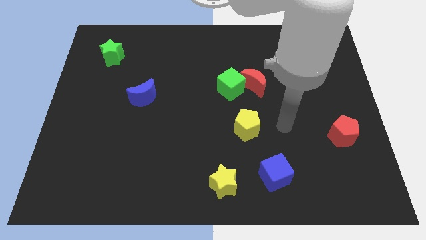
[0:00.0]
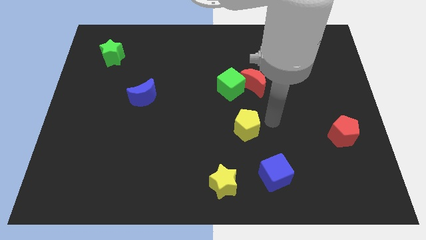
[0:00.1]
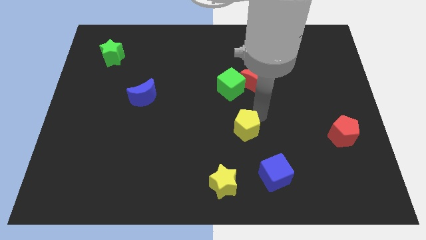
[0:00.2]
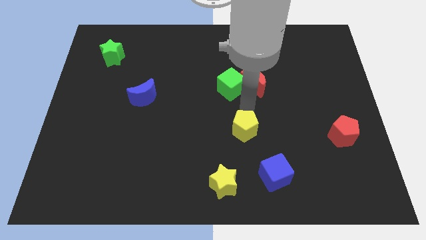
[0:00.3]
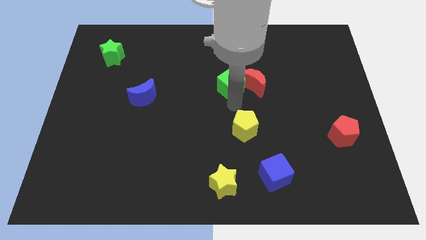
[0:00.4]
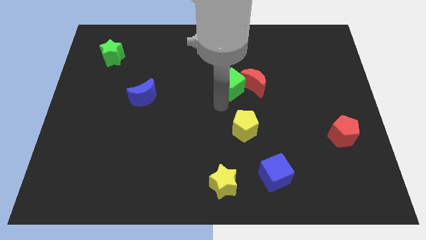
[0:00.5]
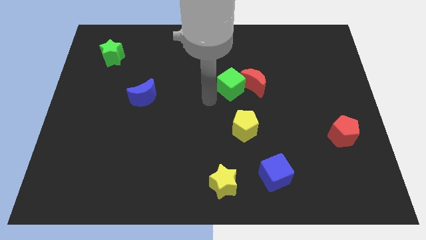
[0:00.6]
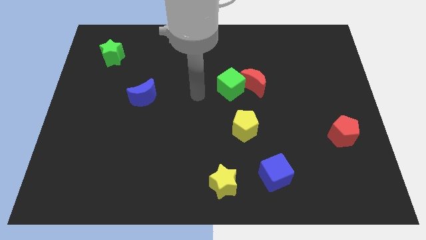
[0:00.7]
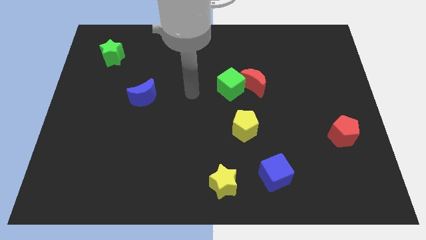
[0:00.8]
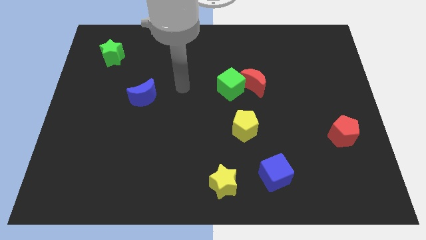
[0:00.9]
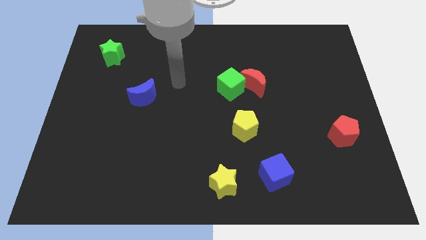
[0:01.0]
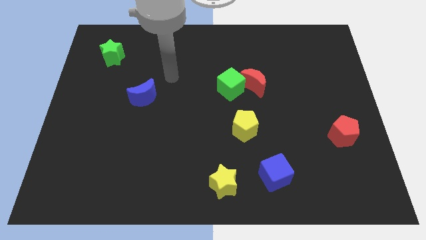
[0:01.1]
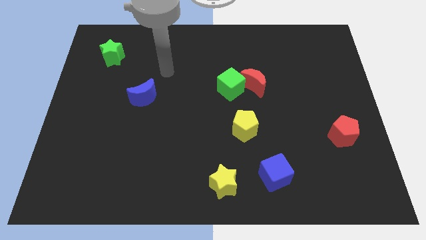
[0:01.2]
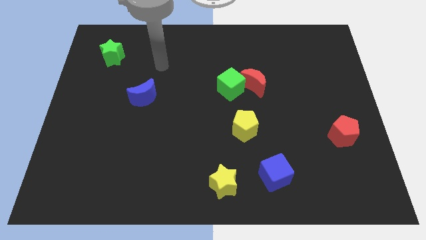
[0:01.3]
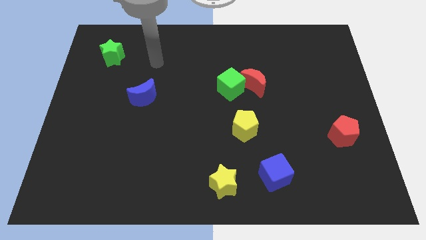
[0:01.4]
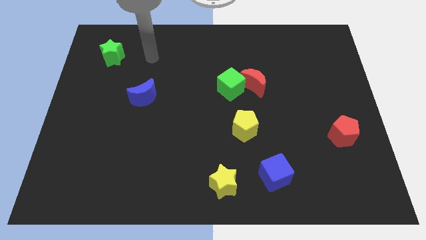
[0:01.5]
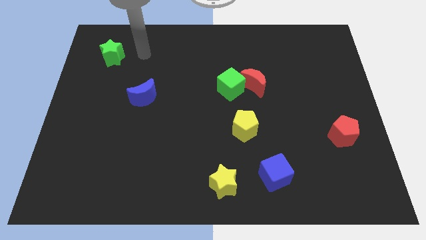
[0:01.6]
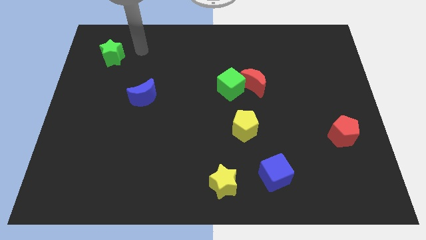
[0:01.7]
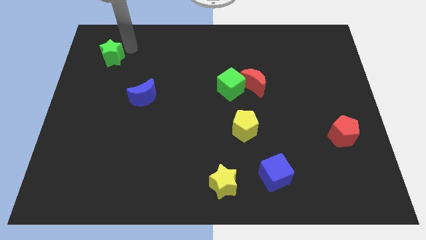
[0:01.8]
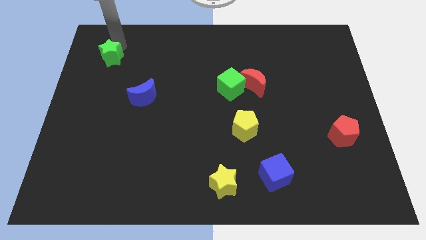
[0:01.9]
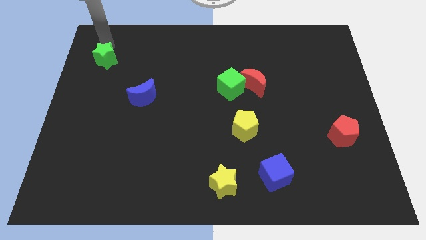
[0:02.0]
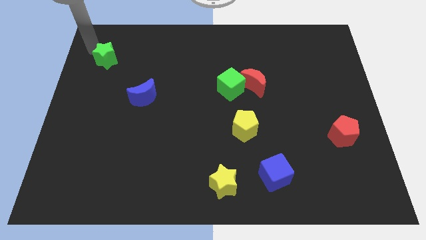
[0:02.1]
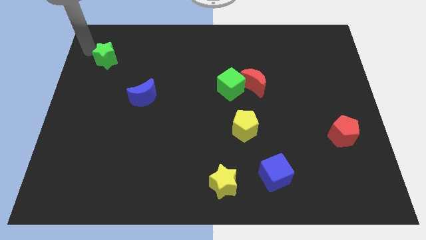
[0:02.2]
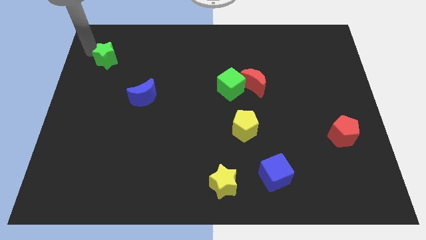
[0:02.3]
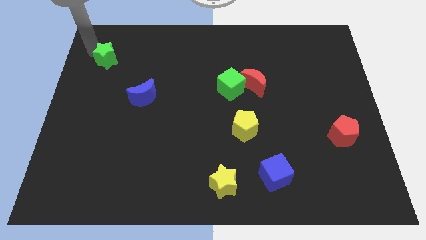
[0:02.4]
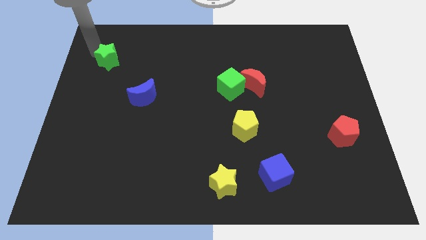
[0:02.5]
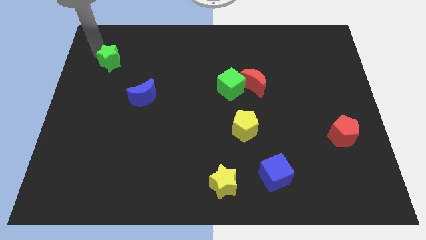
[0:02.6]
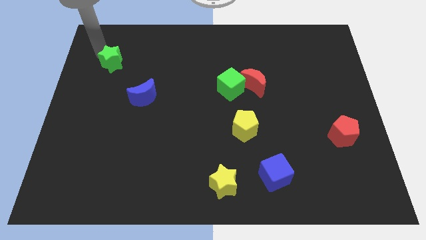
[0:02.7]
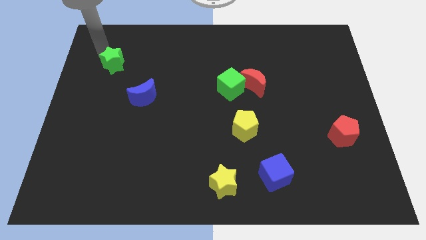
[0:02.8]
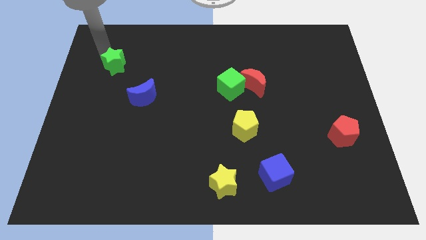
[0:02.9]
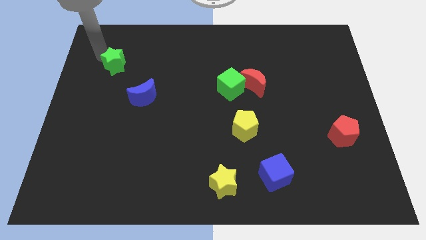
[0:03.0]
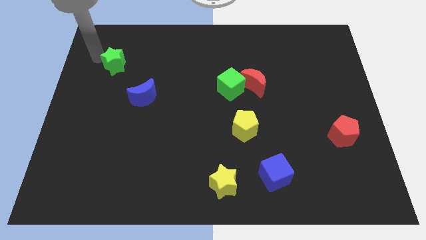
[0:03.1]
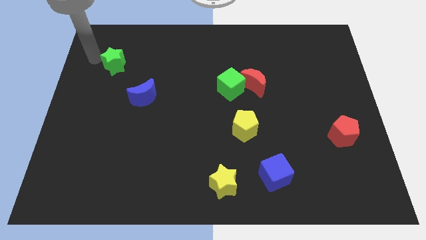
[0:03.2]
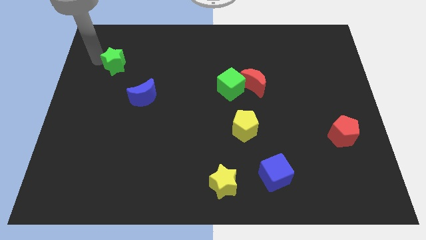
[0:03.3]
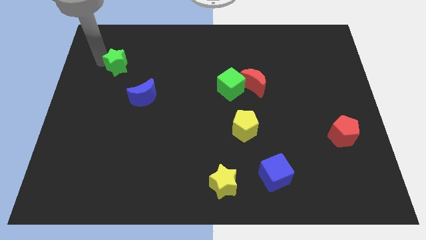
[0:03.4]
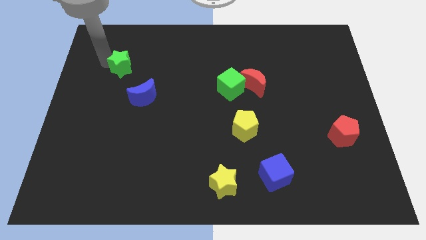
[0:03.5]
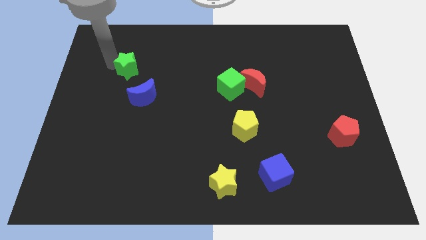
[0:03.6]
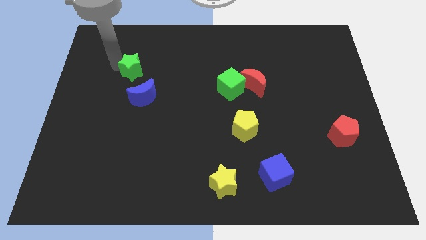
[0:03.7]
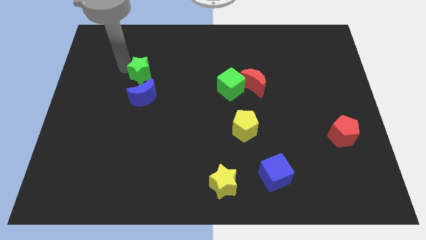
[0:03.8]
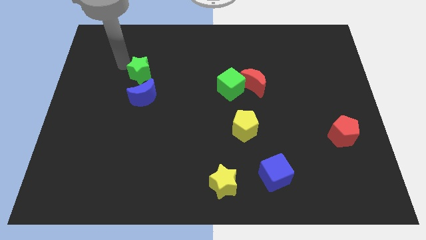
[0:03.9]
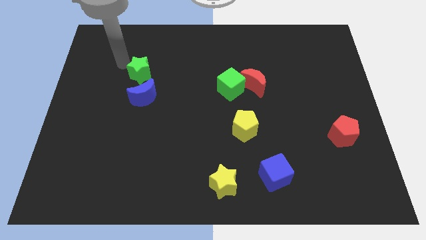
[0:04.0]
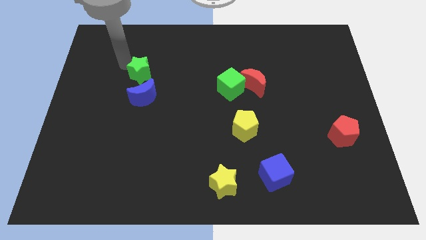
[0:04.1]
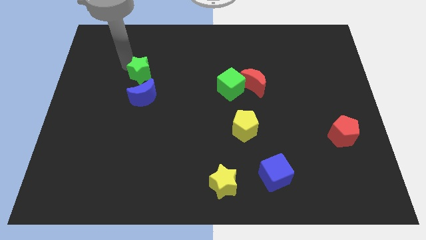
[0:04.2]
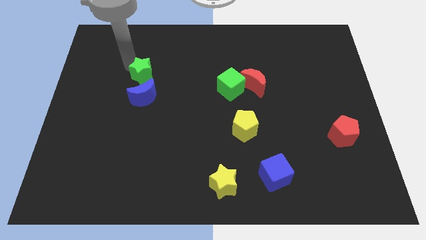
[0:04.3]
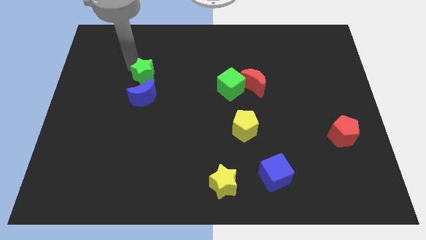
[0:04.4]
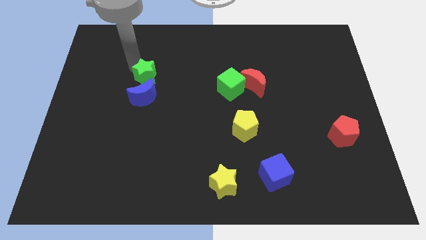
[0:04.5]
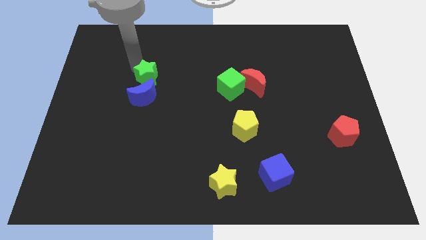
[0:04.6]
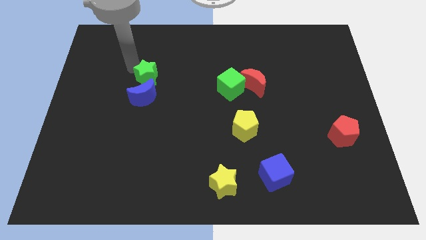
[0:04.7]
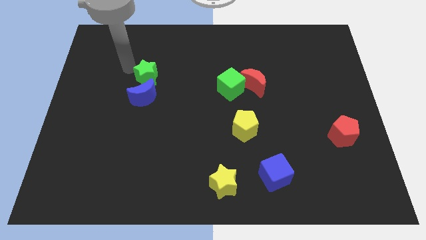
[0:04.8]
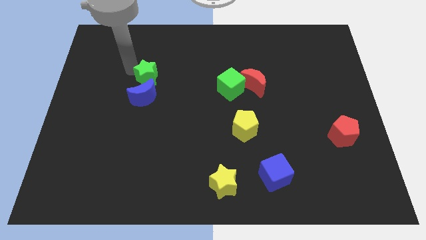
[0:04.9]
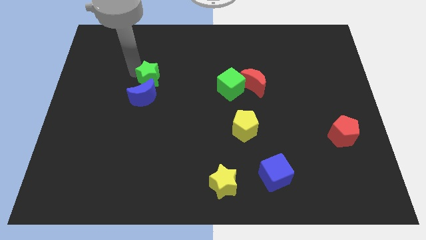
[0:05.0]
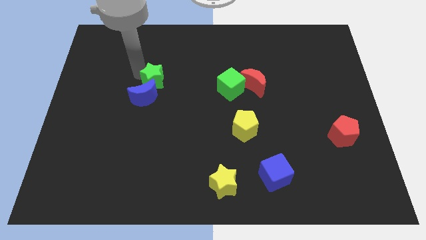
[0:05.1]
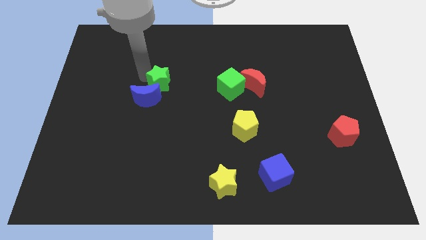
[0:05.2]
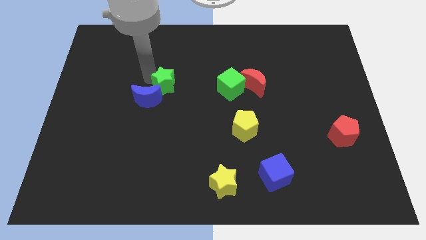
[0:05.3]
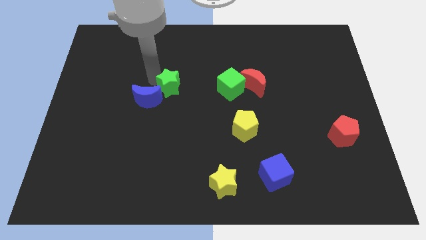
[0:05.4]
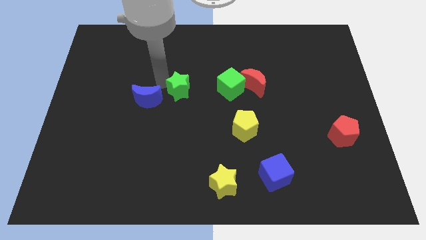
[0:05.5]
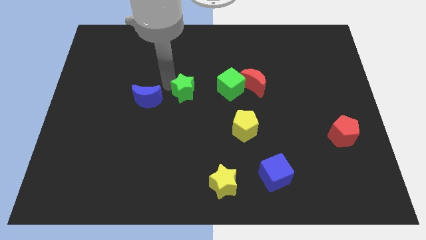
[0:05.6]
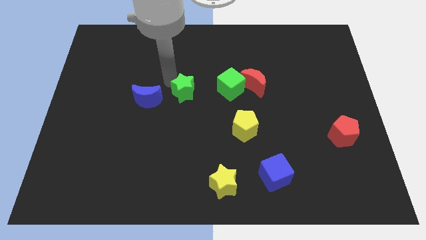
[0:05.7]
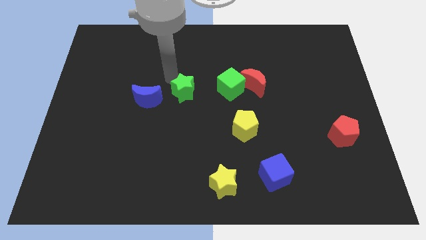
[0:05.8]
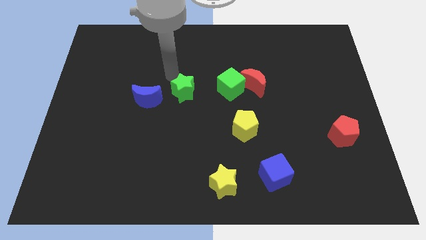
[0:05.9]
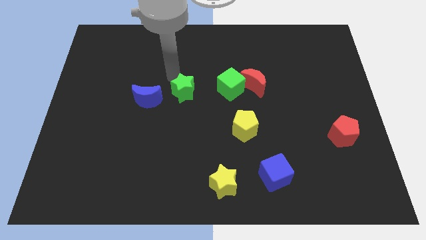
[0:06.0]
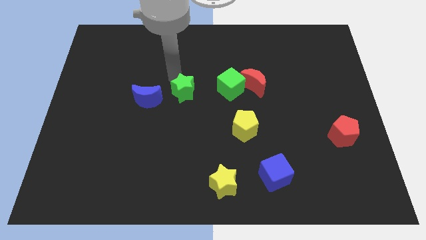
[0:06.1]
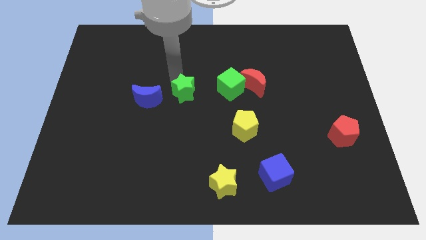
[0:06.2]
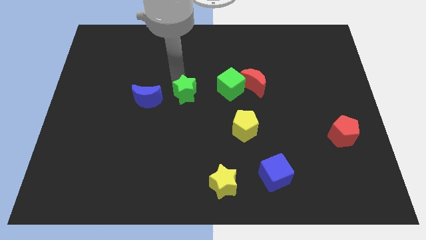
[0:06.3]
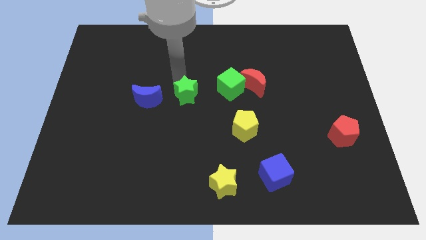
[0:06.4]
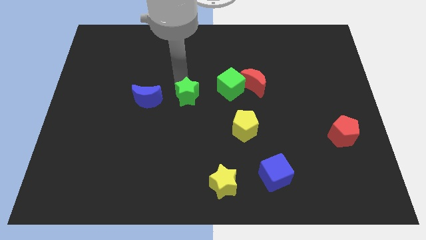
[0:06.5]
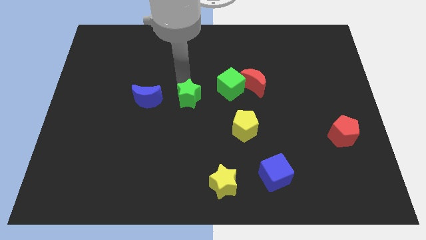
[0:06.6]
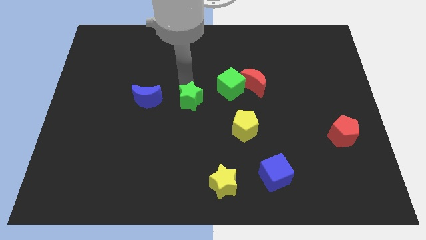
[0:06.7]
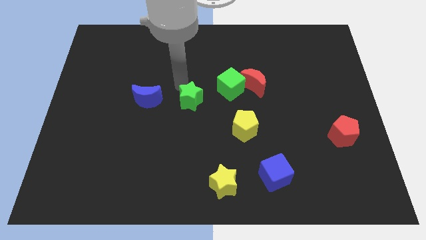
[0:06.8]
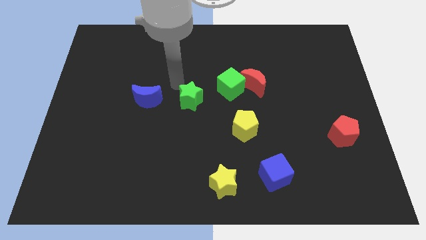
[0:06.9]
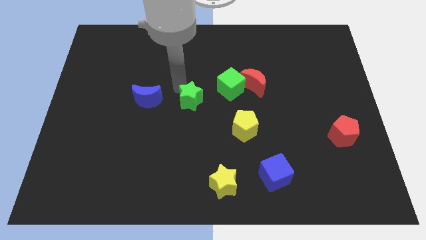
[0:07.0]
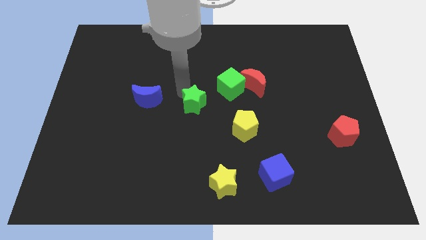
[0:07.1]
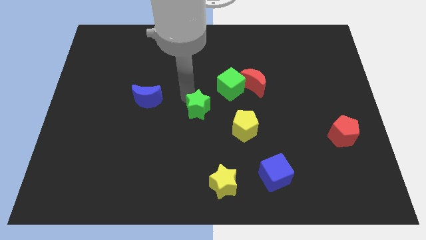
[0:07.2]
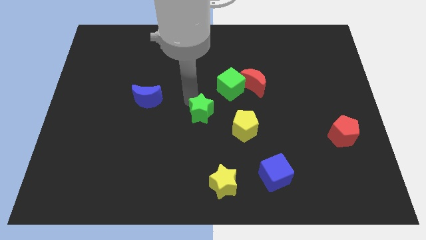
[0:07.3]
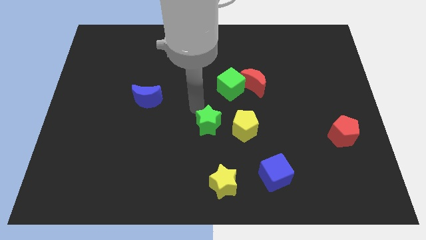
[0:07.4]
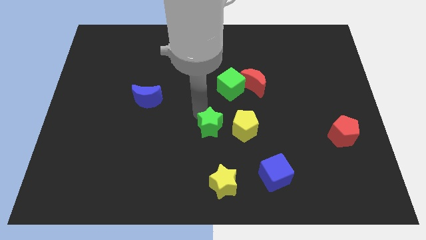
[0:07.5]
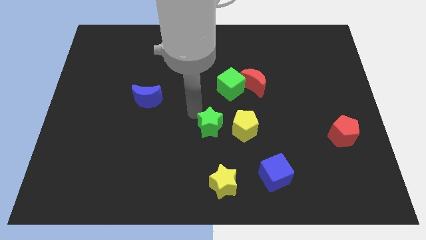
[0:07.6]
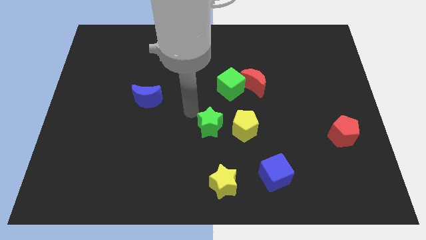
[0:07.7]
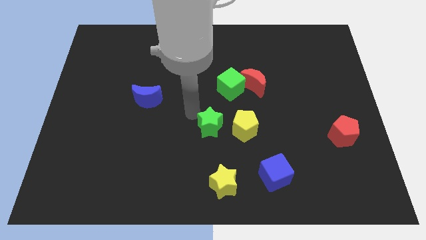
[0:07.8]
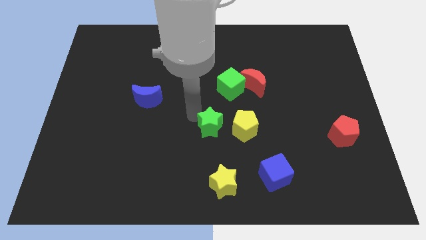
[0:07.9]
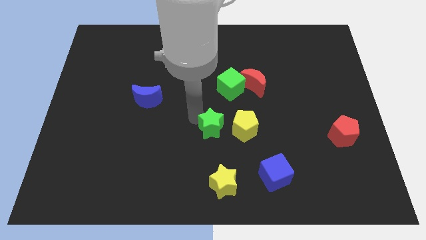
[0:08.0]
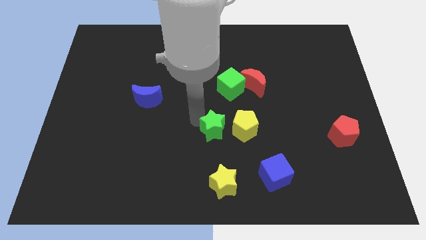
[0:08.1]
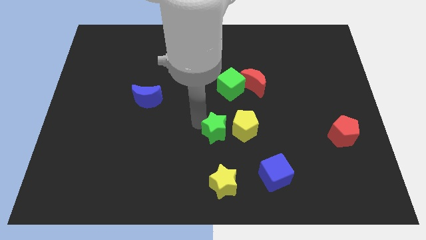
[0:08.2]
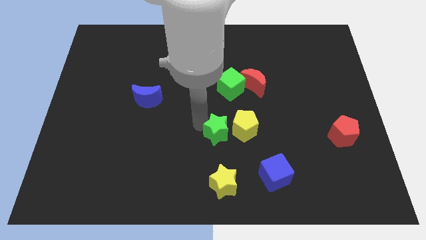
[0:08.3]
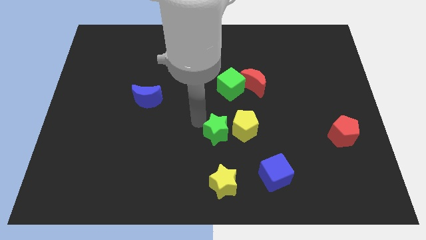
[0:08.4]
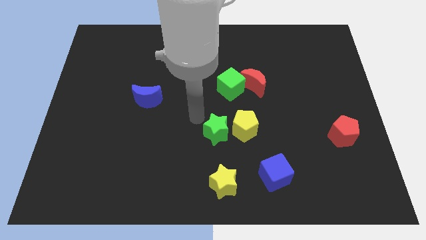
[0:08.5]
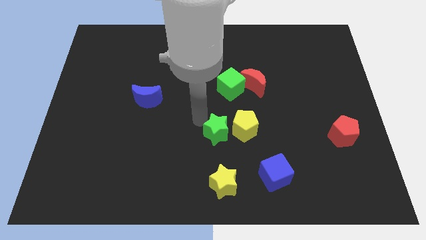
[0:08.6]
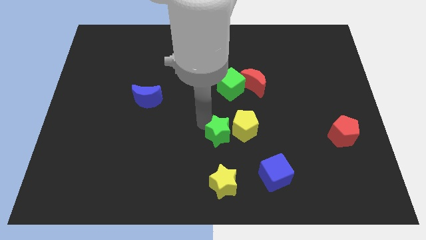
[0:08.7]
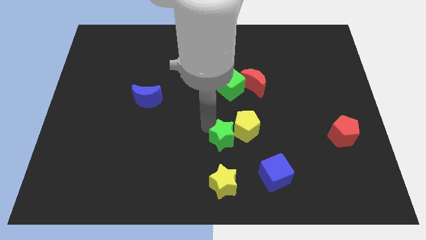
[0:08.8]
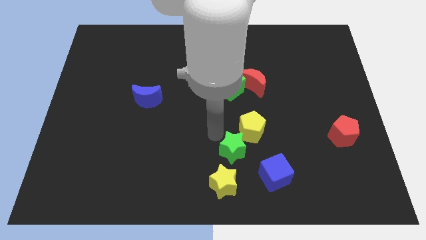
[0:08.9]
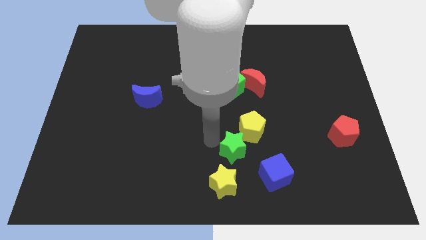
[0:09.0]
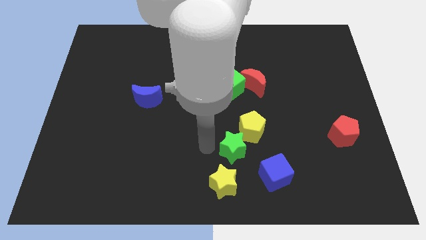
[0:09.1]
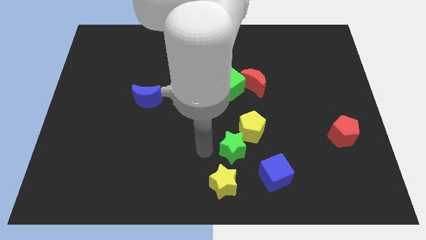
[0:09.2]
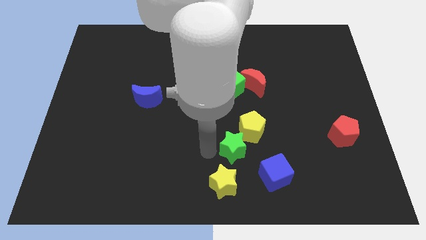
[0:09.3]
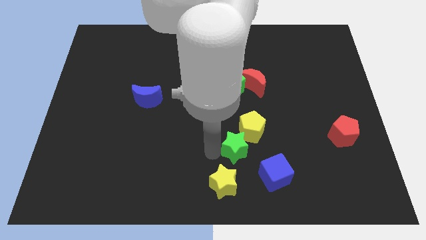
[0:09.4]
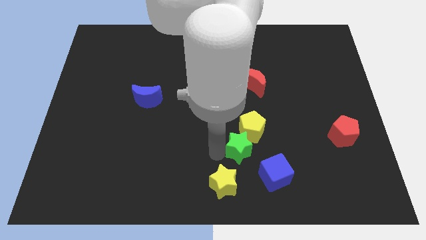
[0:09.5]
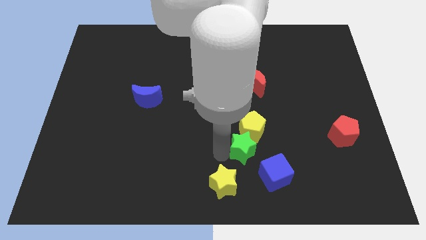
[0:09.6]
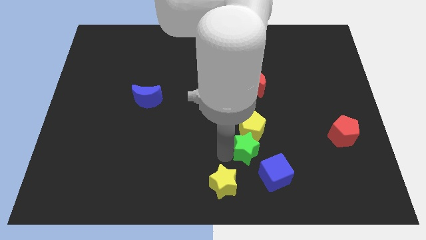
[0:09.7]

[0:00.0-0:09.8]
put the green star to the bottom right of the yellow pentagon
